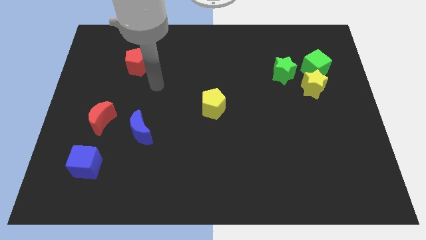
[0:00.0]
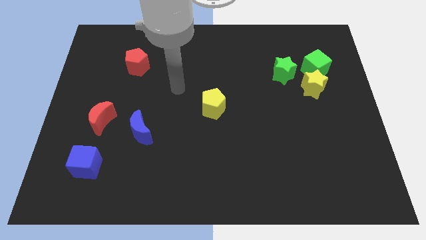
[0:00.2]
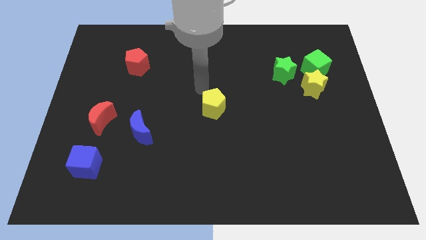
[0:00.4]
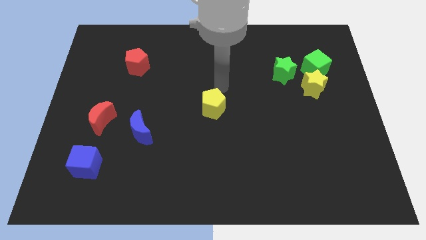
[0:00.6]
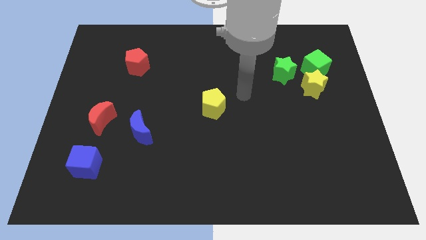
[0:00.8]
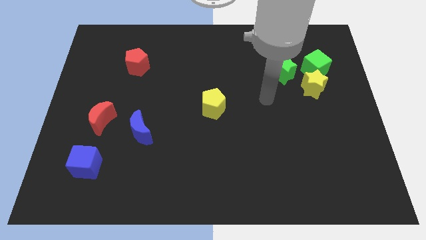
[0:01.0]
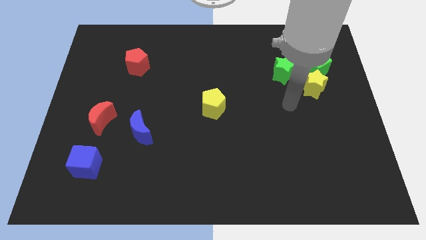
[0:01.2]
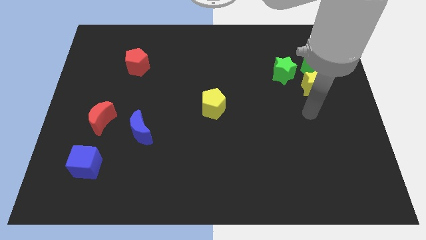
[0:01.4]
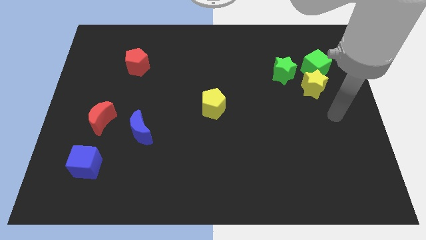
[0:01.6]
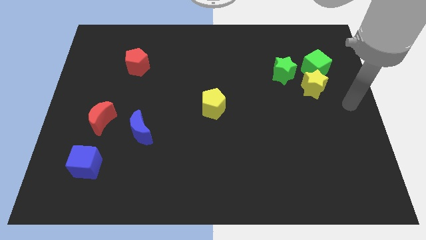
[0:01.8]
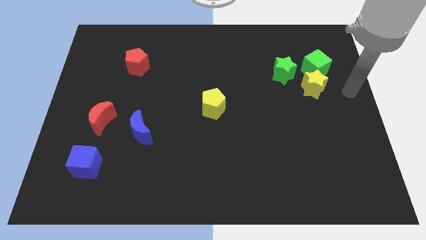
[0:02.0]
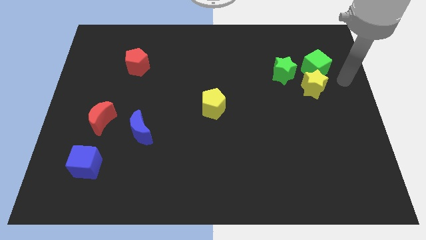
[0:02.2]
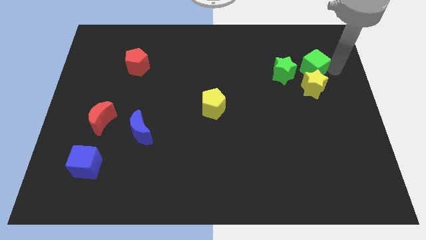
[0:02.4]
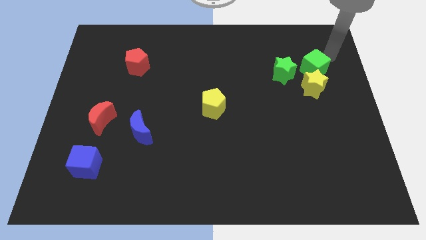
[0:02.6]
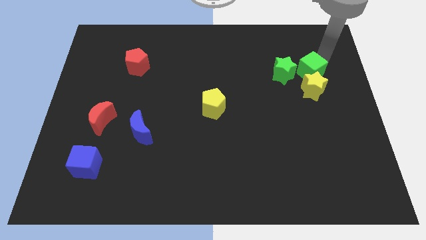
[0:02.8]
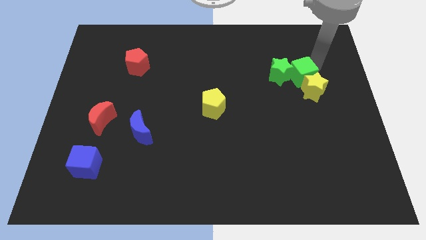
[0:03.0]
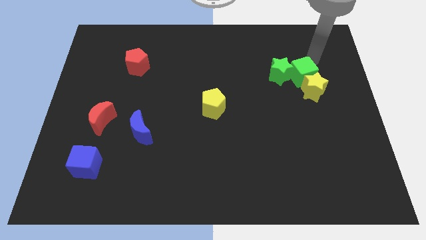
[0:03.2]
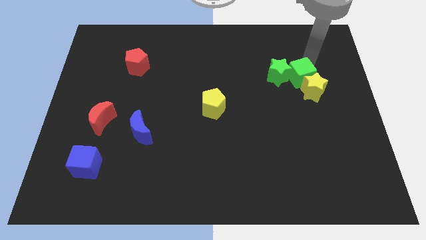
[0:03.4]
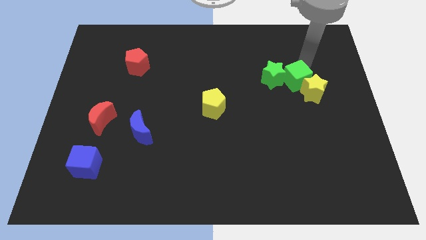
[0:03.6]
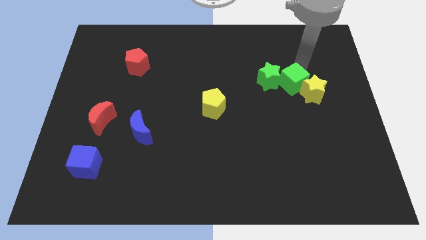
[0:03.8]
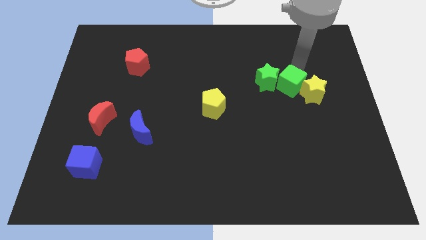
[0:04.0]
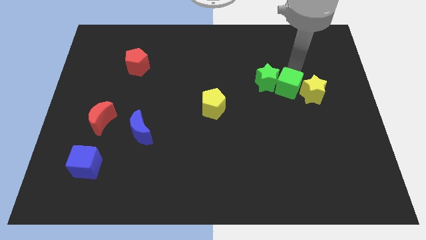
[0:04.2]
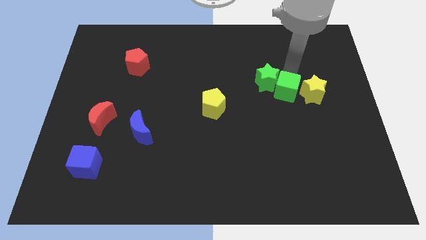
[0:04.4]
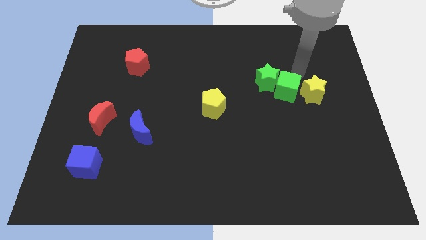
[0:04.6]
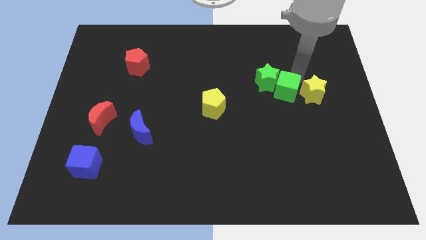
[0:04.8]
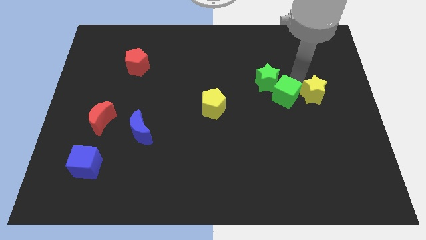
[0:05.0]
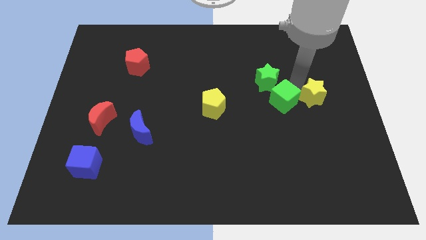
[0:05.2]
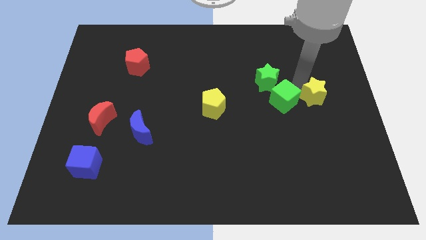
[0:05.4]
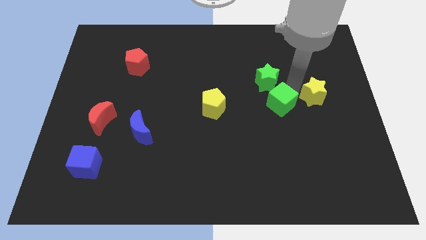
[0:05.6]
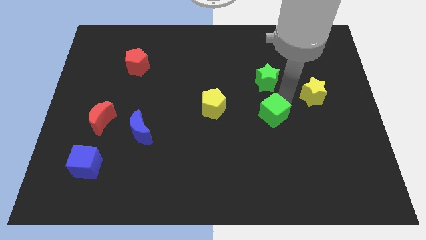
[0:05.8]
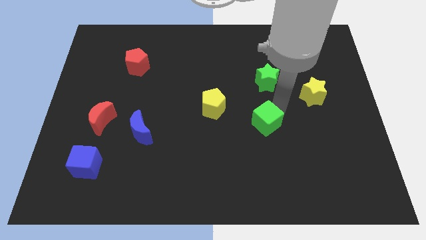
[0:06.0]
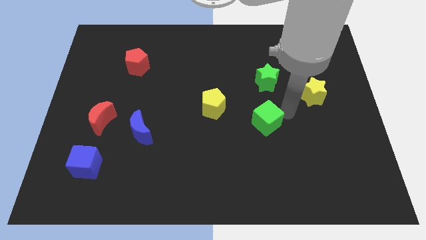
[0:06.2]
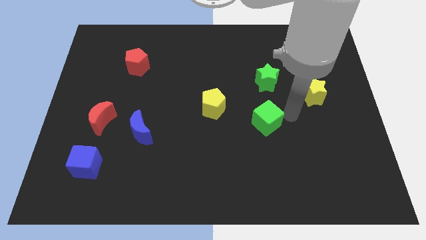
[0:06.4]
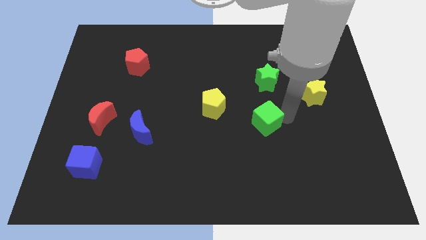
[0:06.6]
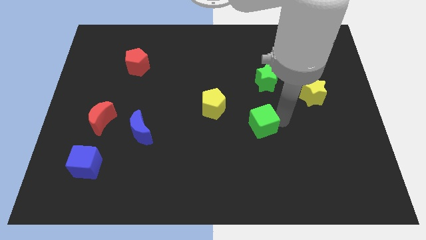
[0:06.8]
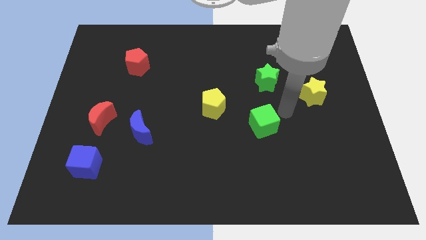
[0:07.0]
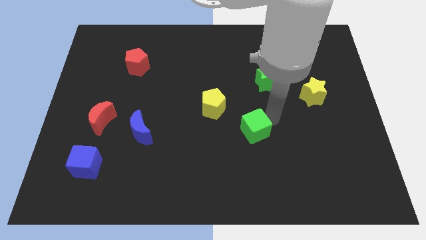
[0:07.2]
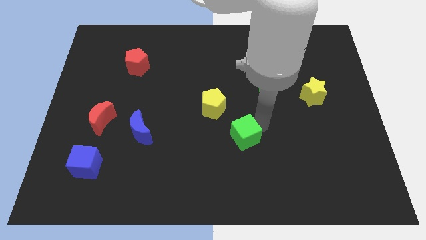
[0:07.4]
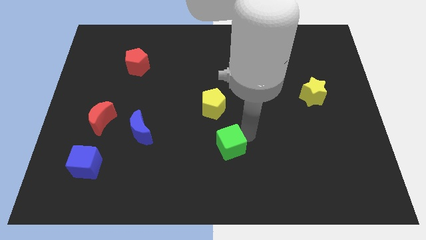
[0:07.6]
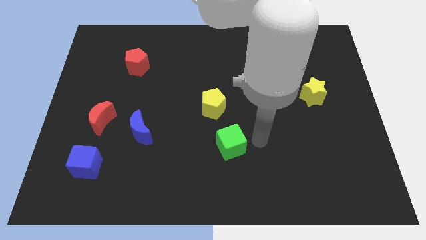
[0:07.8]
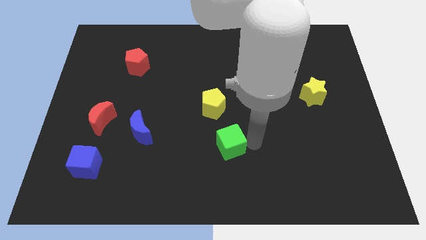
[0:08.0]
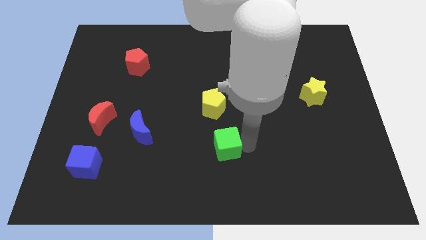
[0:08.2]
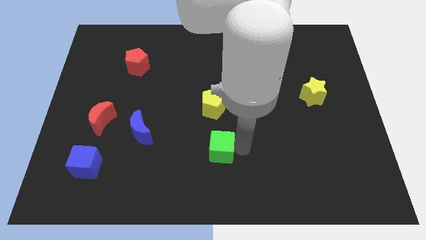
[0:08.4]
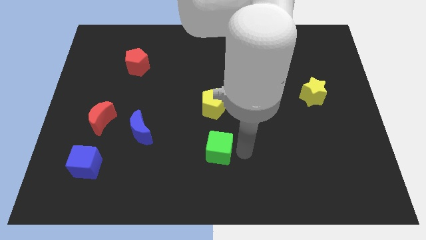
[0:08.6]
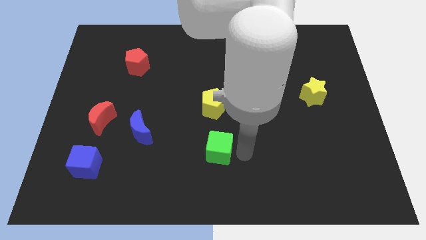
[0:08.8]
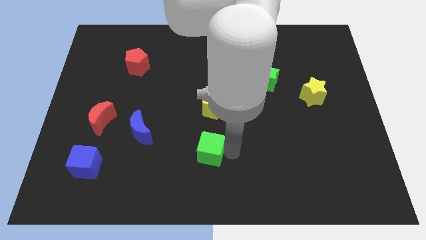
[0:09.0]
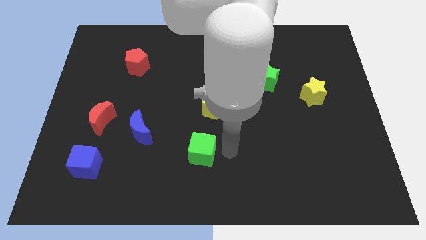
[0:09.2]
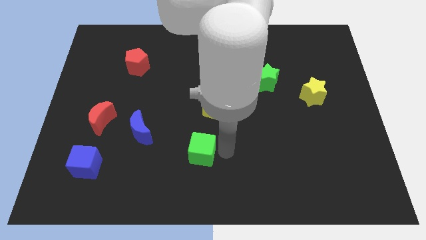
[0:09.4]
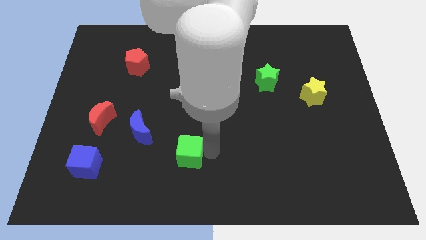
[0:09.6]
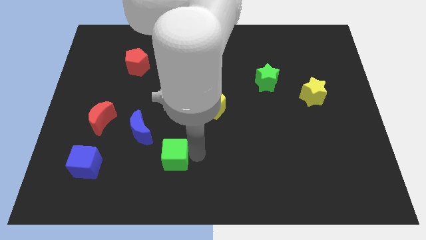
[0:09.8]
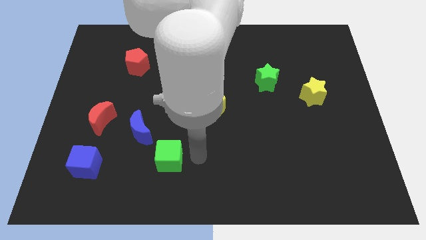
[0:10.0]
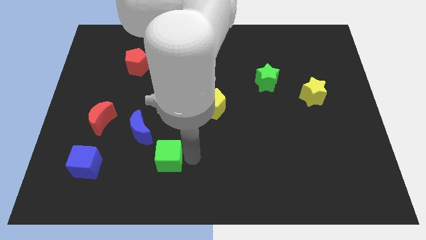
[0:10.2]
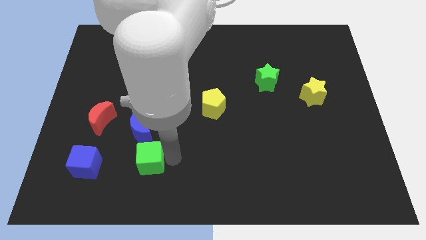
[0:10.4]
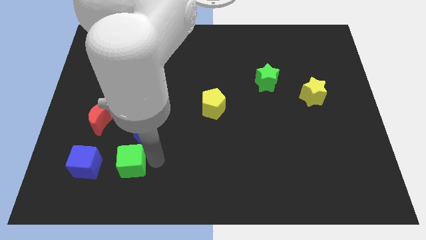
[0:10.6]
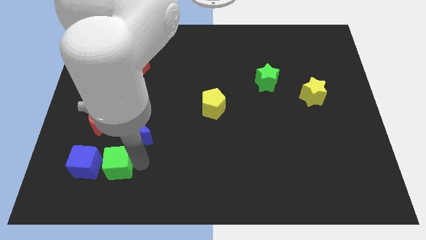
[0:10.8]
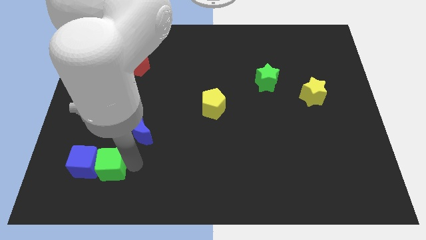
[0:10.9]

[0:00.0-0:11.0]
push the green cube next to the blue cube

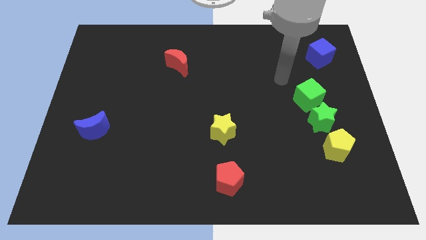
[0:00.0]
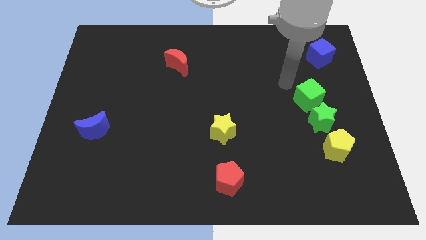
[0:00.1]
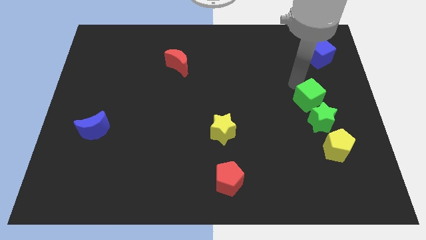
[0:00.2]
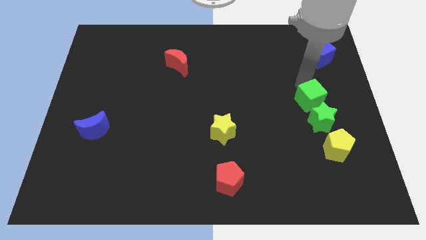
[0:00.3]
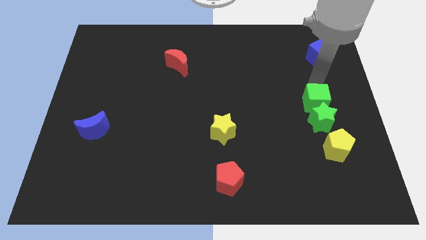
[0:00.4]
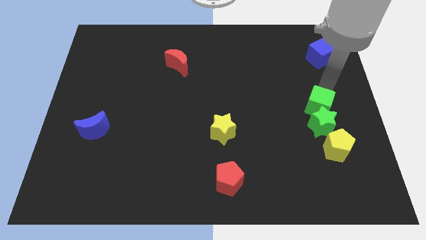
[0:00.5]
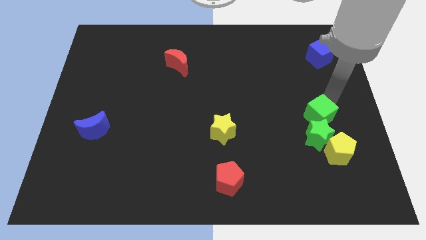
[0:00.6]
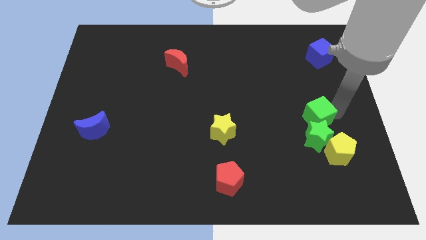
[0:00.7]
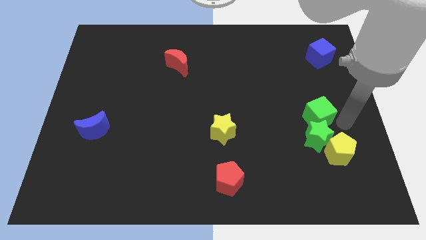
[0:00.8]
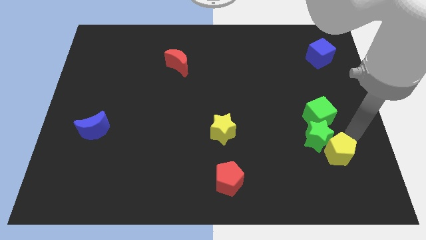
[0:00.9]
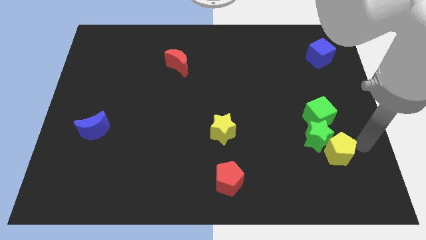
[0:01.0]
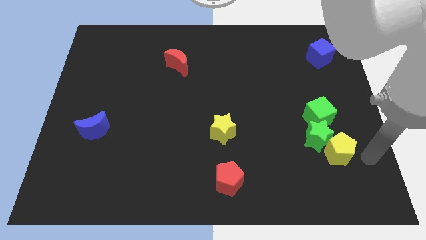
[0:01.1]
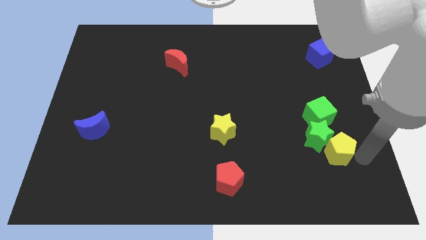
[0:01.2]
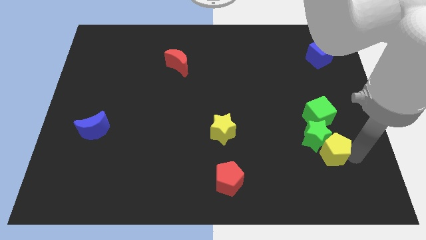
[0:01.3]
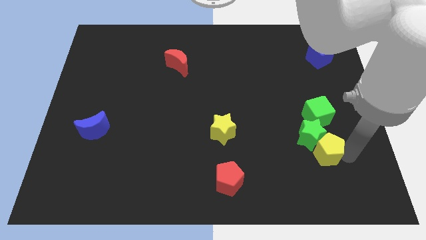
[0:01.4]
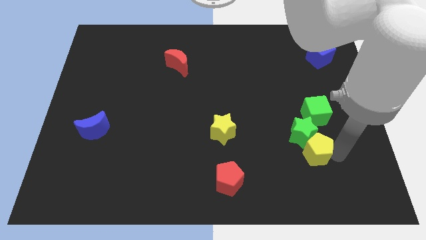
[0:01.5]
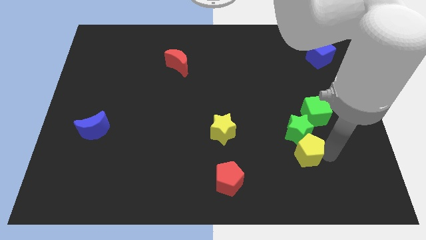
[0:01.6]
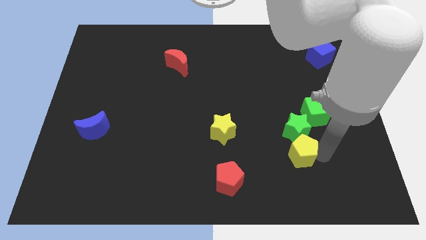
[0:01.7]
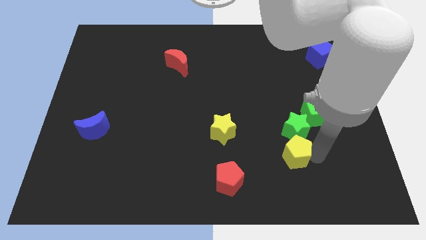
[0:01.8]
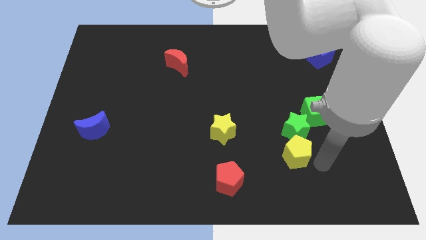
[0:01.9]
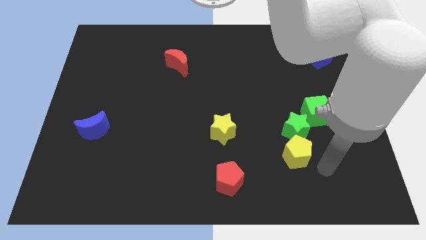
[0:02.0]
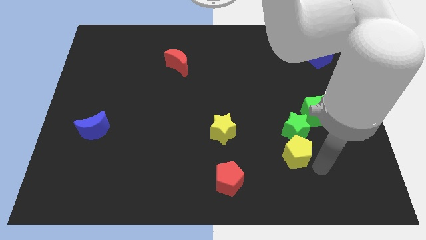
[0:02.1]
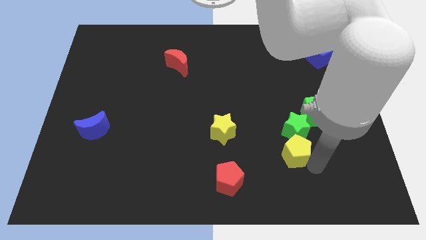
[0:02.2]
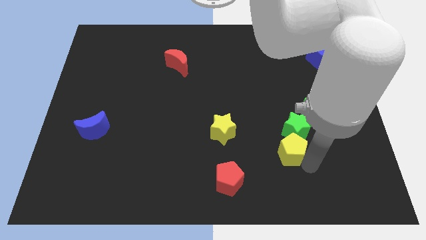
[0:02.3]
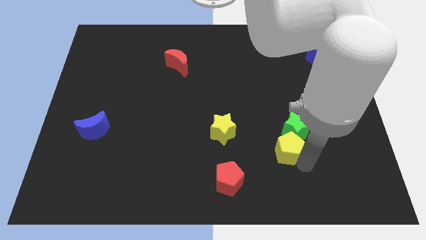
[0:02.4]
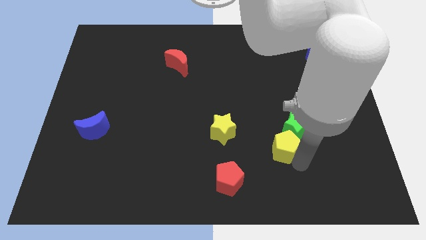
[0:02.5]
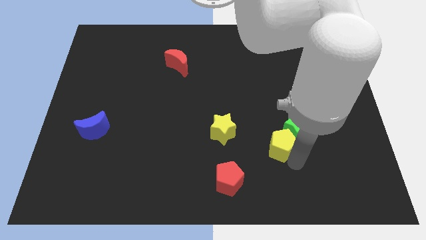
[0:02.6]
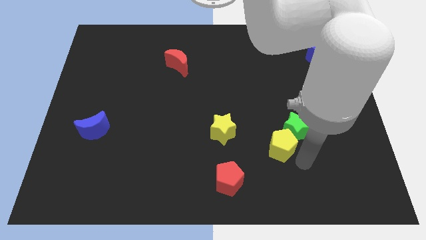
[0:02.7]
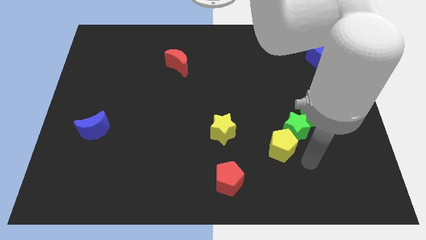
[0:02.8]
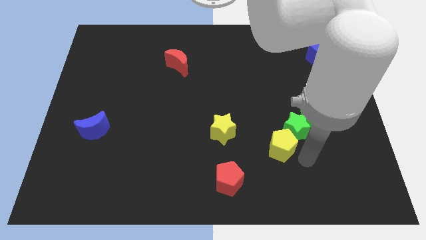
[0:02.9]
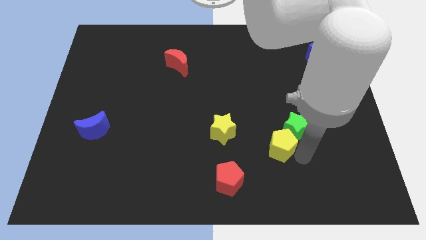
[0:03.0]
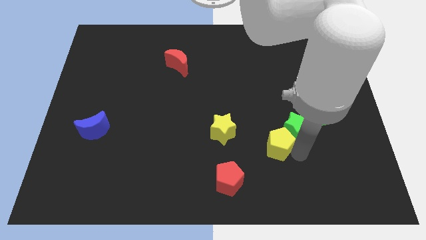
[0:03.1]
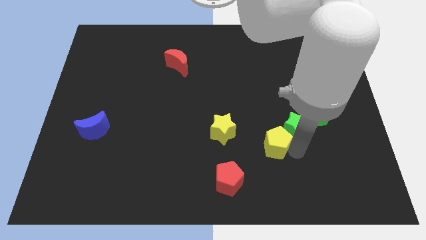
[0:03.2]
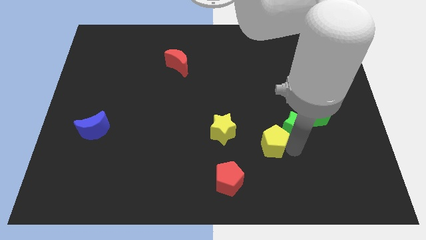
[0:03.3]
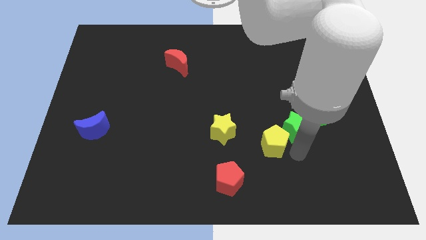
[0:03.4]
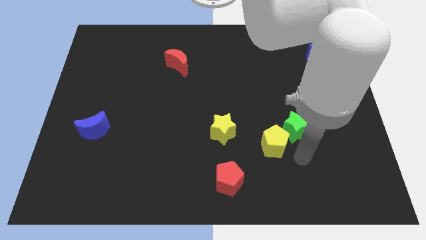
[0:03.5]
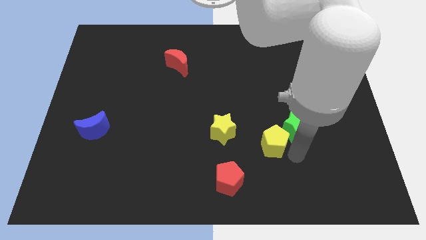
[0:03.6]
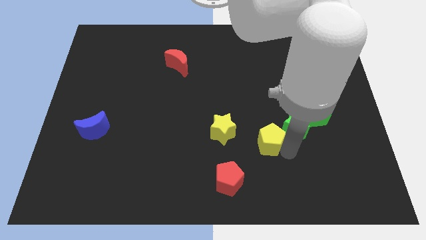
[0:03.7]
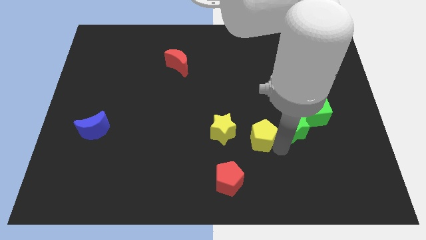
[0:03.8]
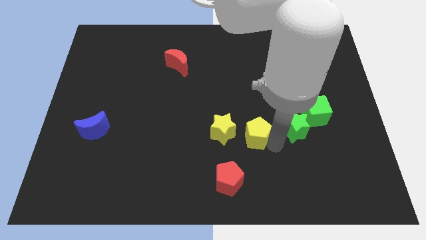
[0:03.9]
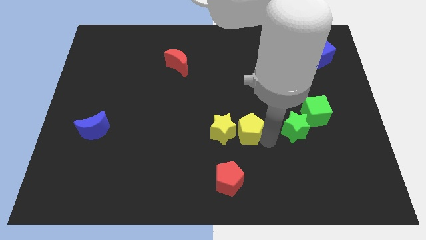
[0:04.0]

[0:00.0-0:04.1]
put the yellow pentagon to the yellow star
